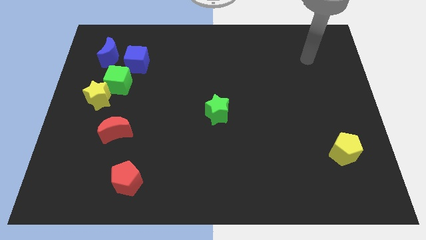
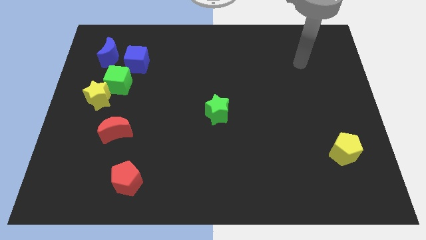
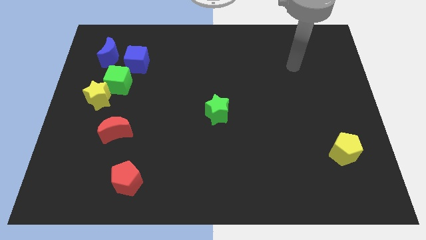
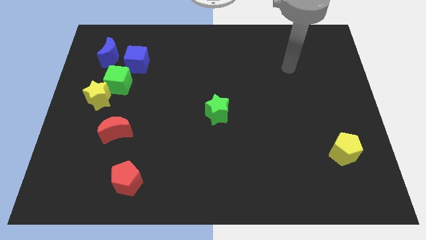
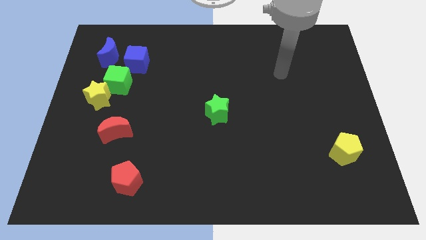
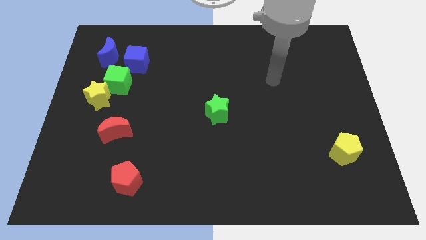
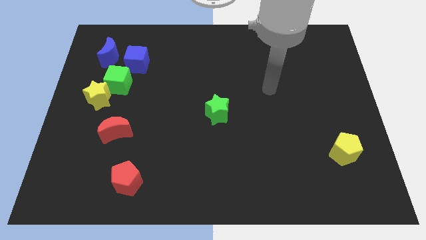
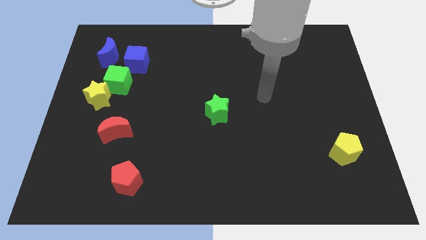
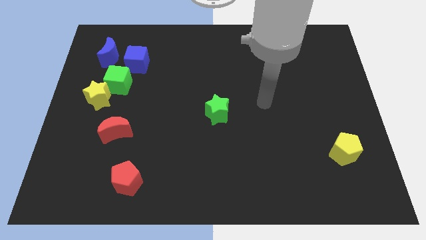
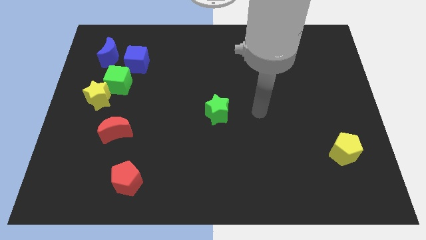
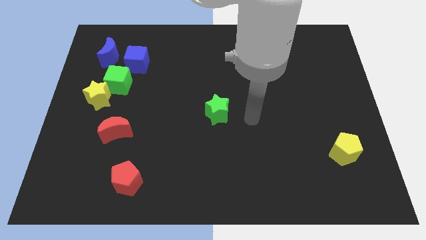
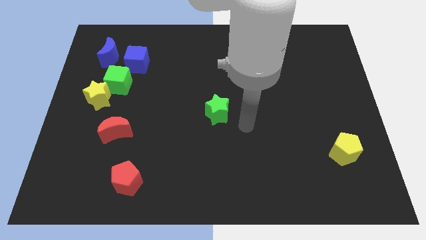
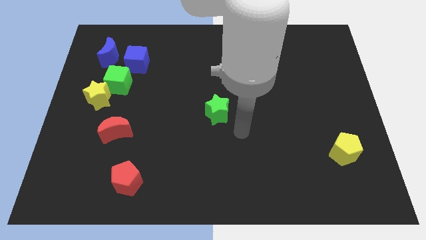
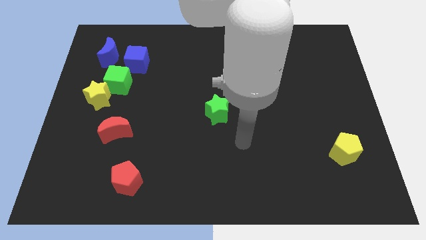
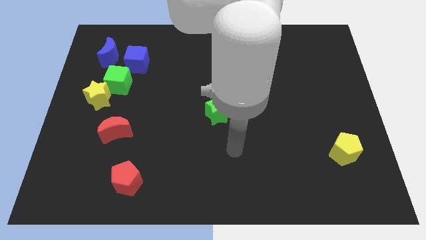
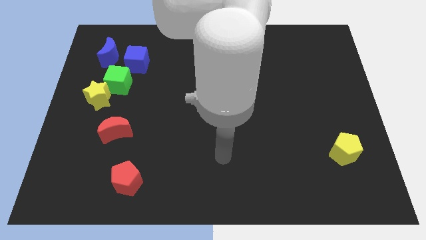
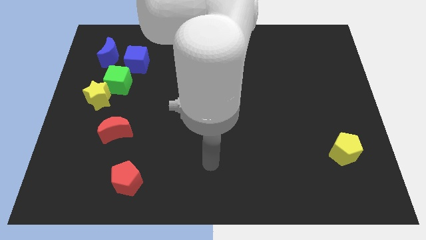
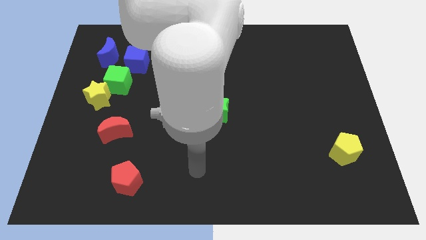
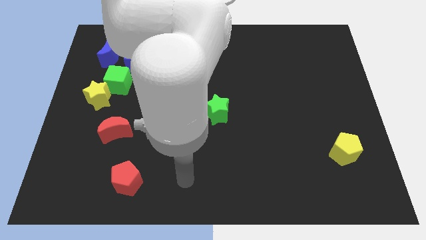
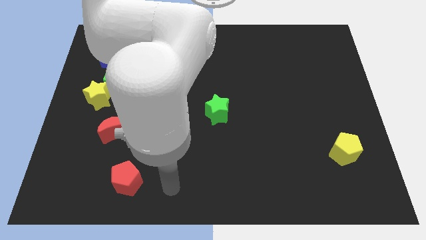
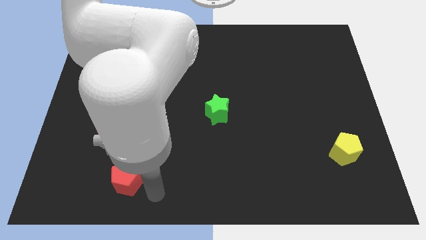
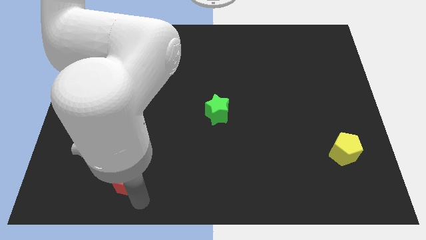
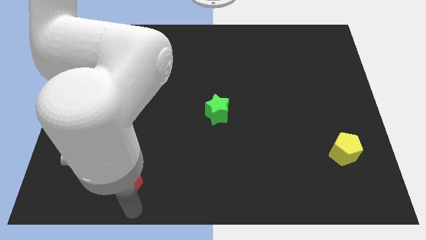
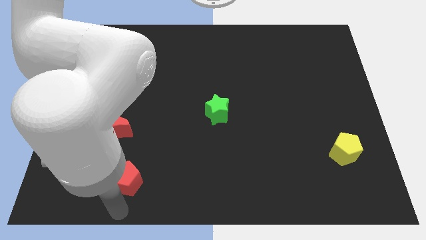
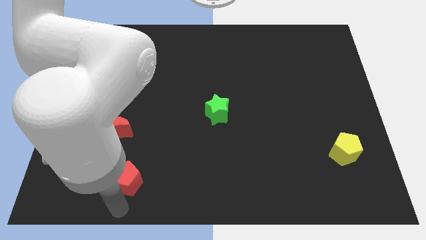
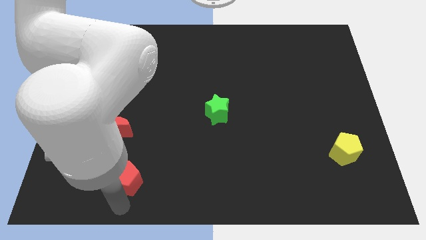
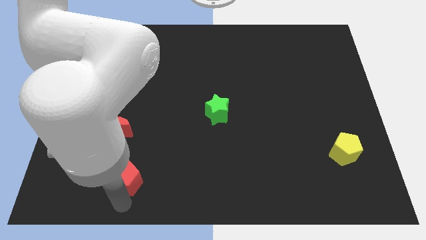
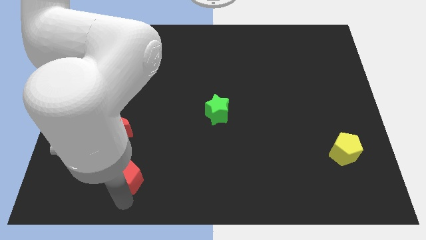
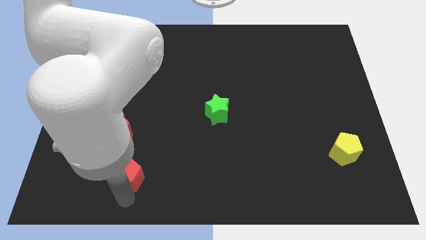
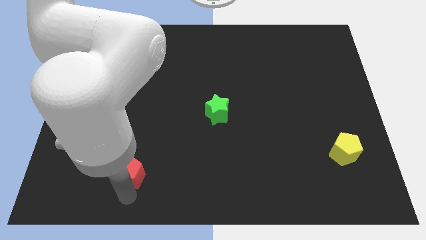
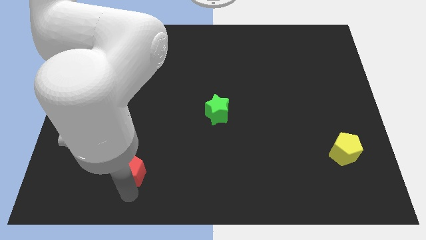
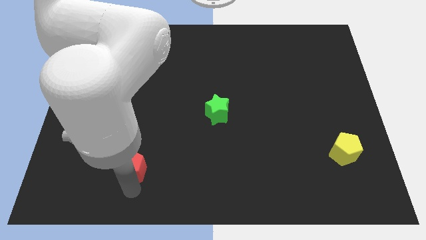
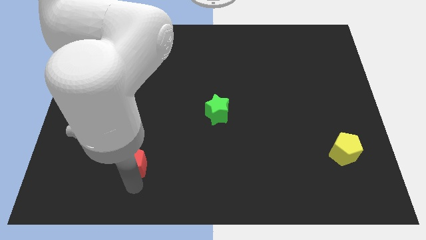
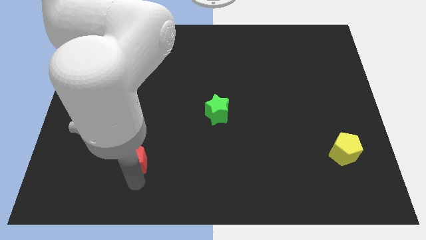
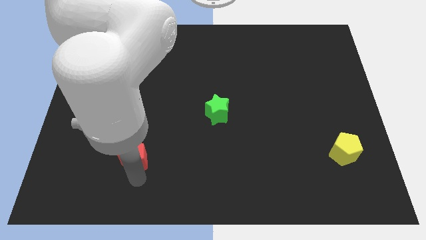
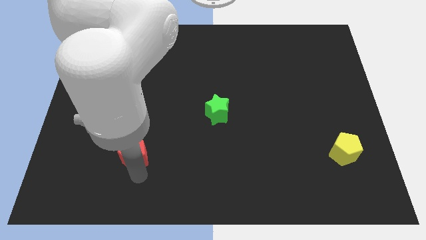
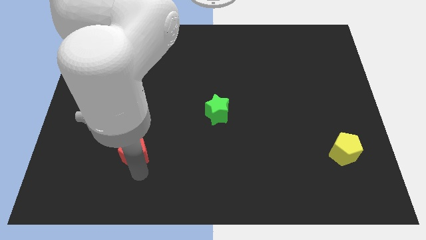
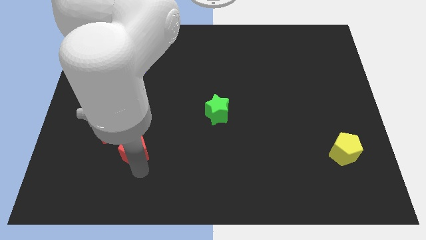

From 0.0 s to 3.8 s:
slightly slide the red pentagon upwards

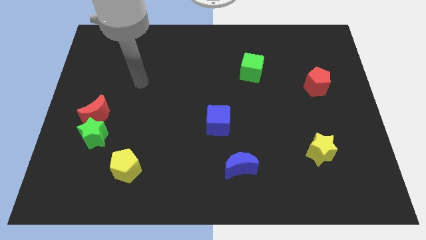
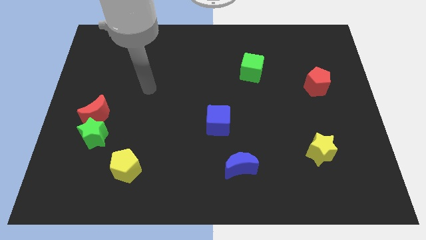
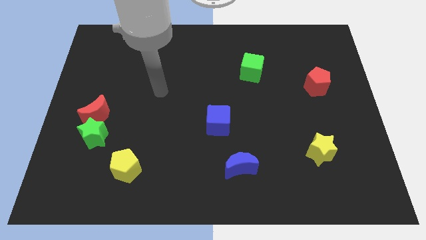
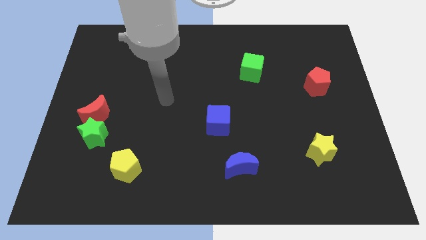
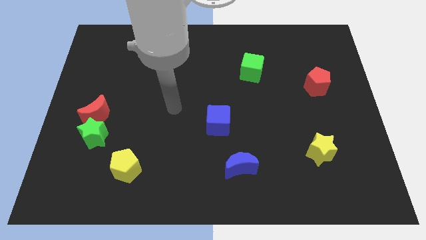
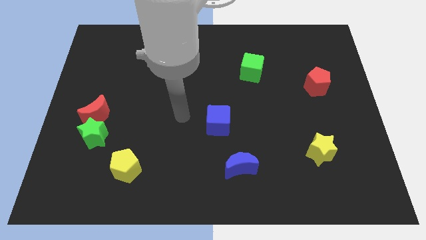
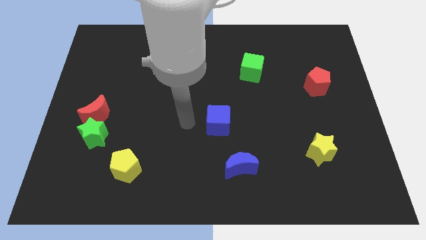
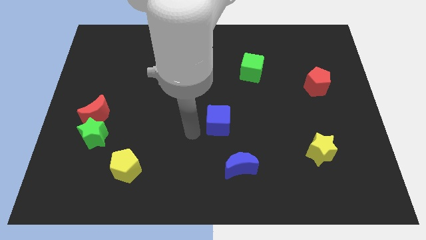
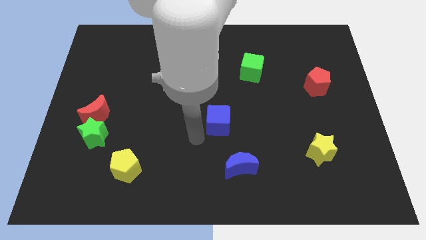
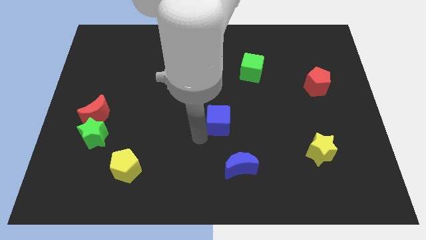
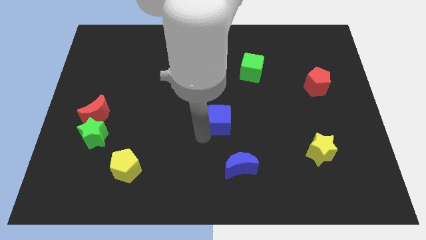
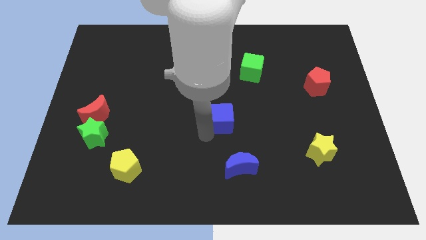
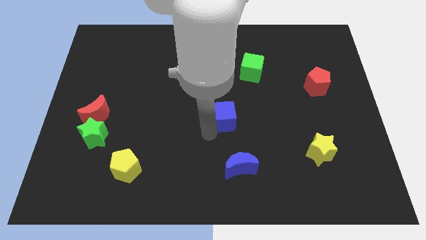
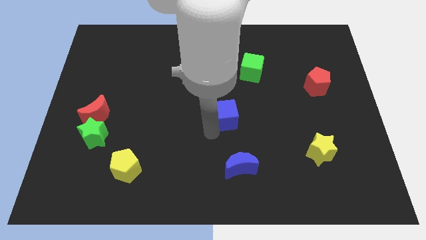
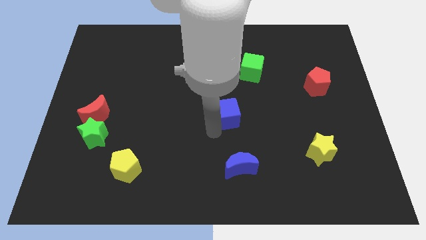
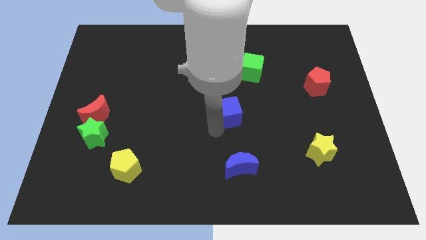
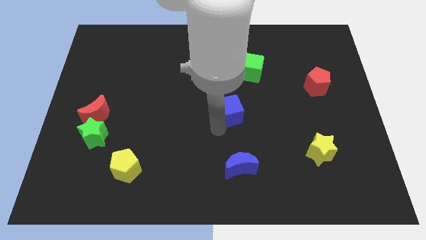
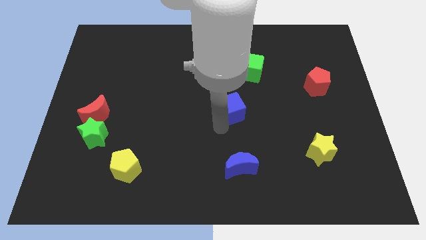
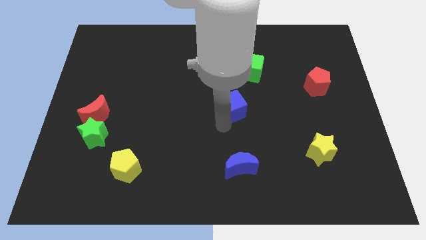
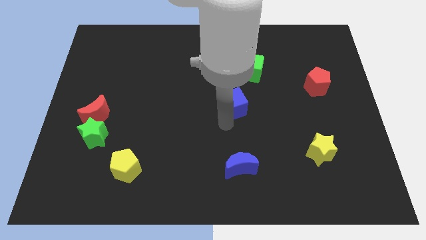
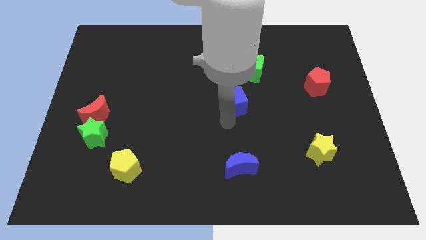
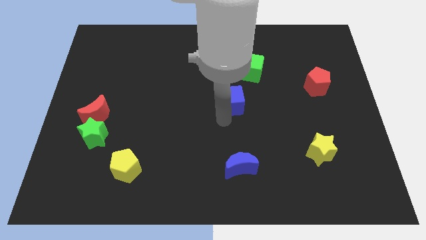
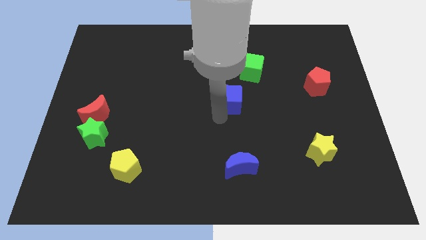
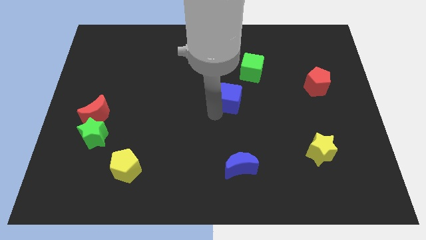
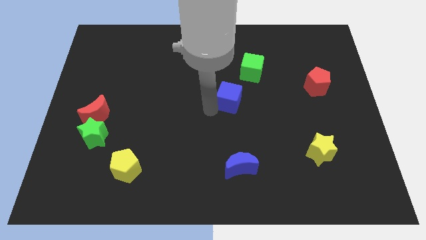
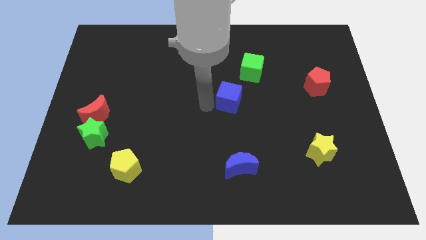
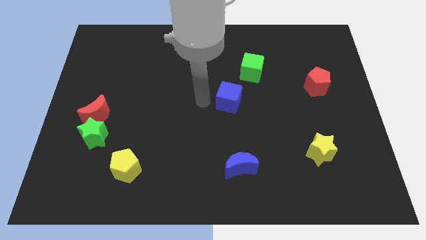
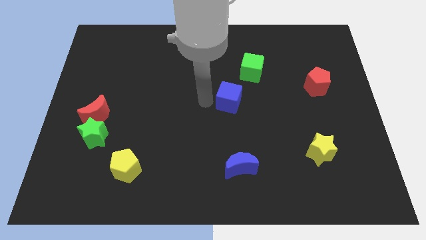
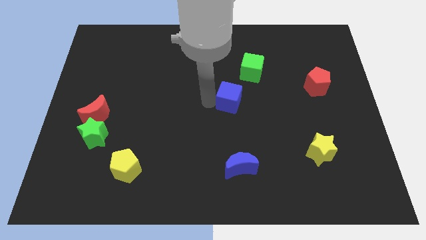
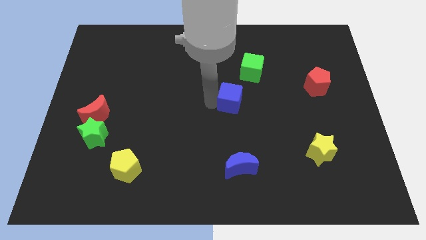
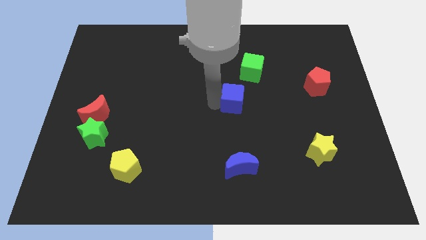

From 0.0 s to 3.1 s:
slightly slide the blue cube up and right diagonally

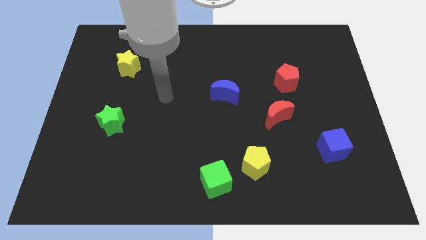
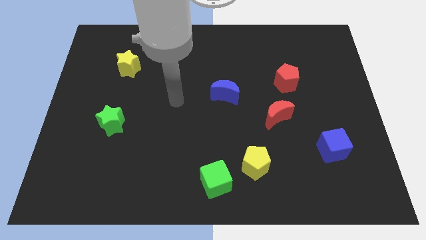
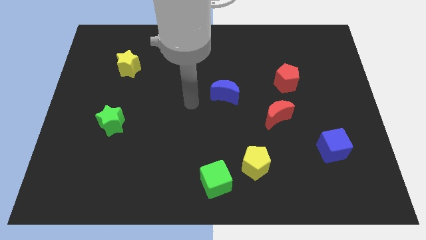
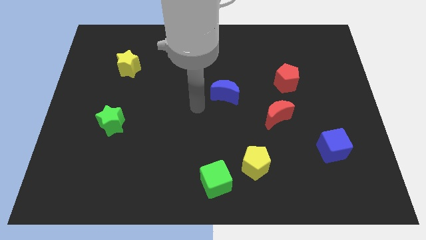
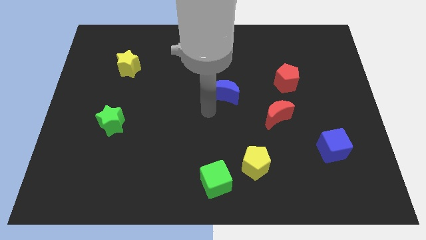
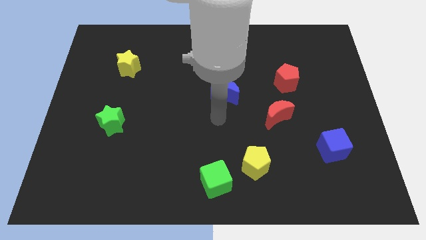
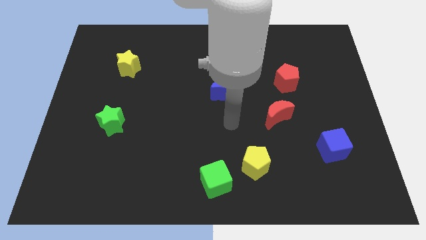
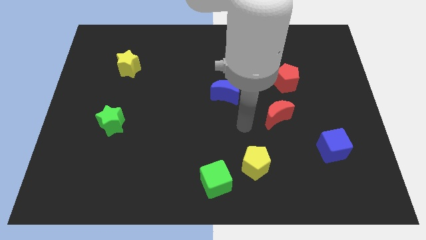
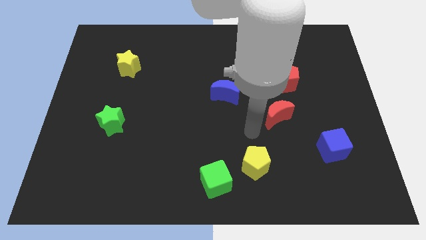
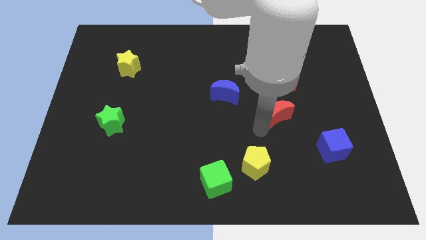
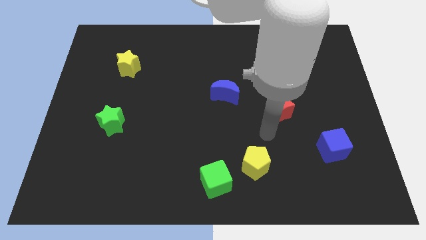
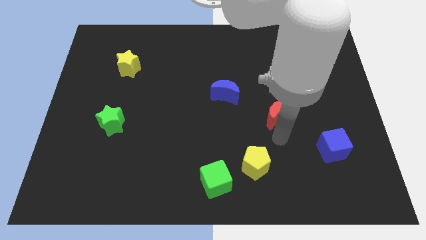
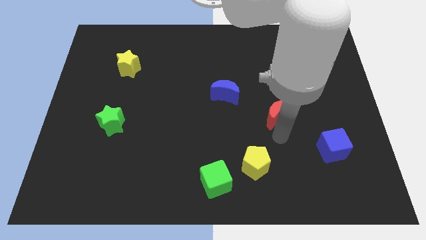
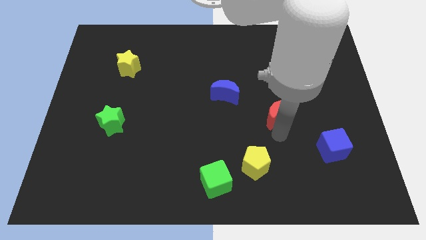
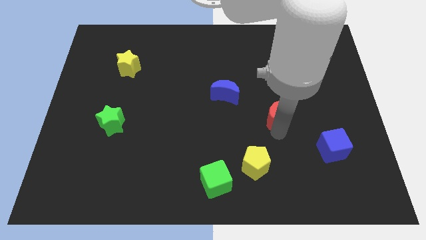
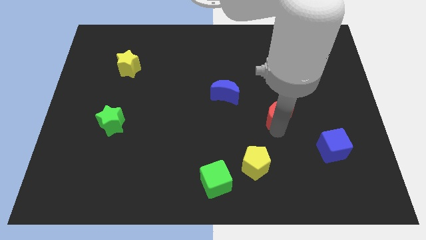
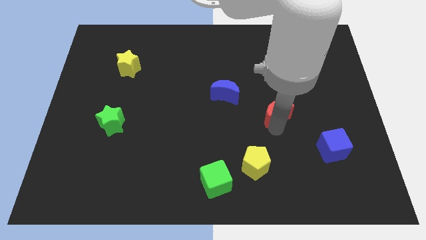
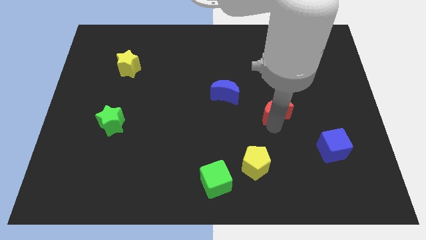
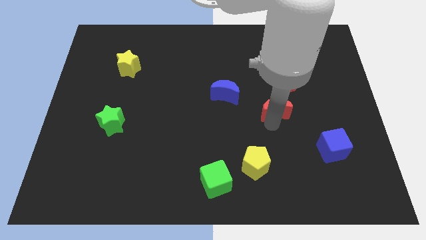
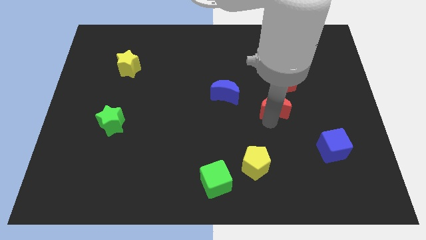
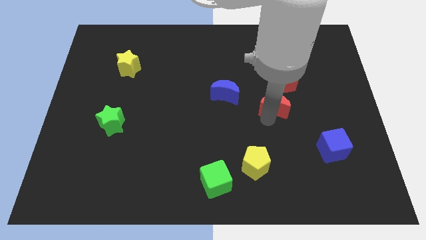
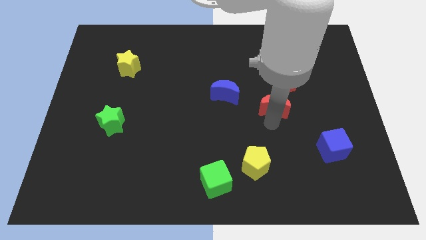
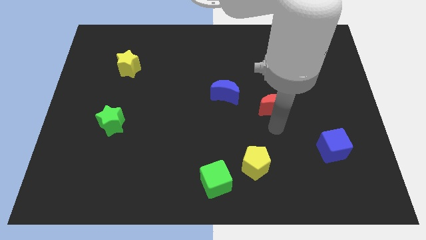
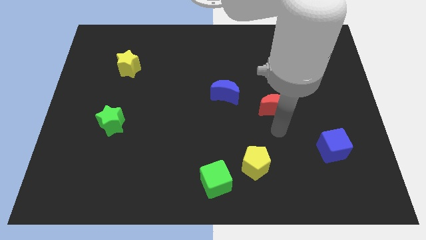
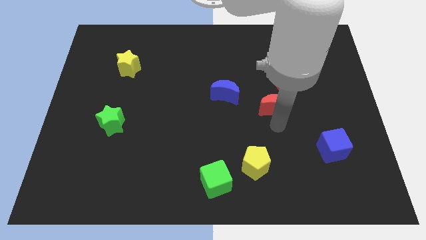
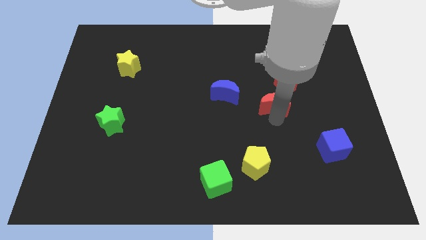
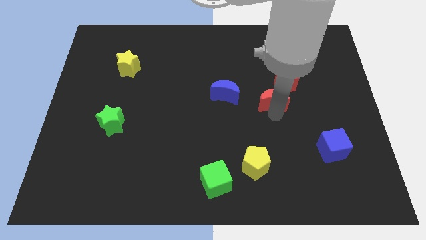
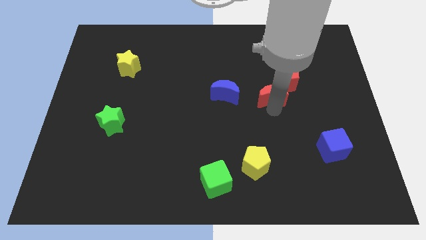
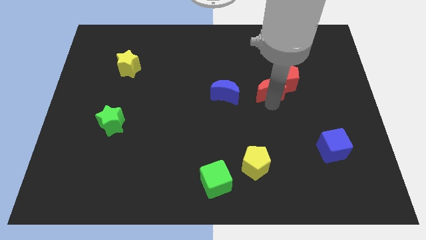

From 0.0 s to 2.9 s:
move the red moon up a little
